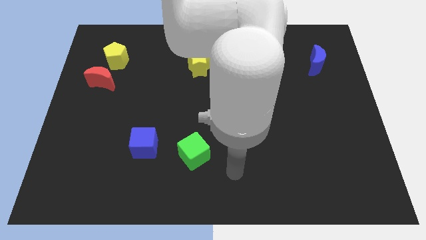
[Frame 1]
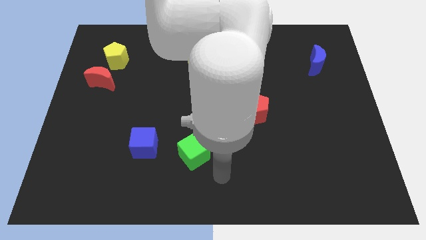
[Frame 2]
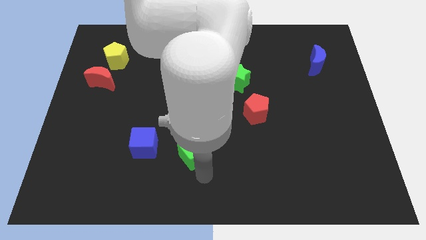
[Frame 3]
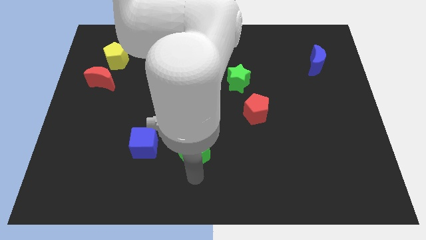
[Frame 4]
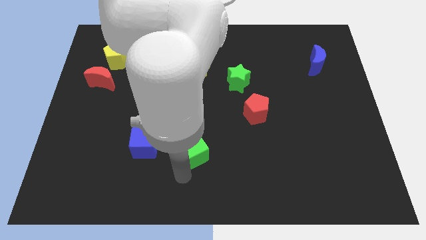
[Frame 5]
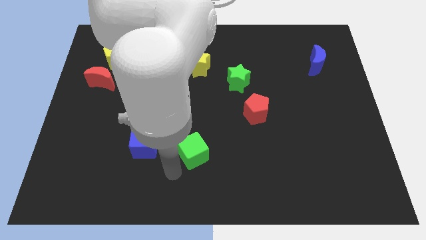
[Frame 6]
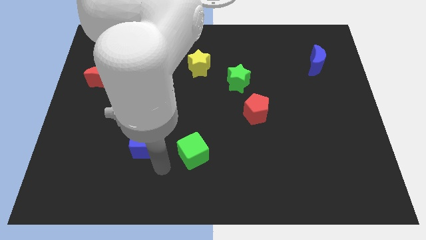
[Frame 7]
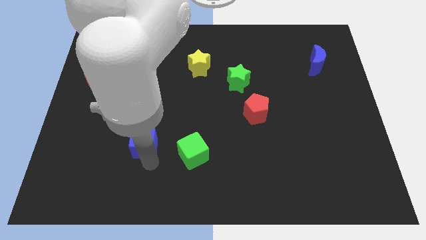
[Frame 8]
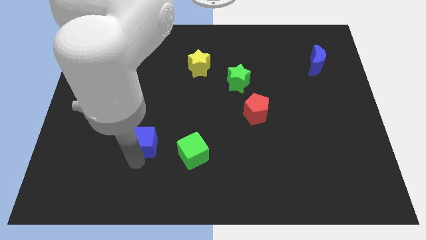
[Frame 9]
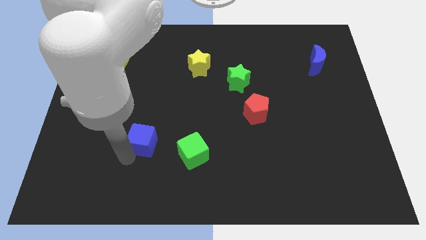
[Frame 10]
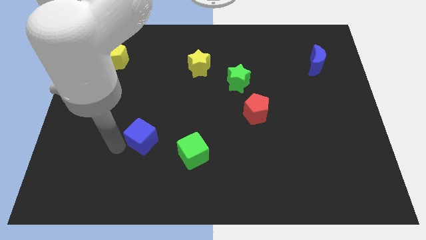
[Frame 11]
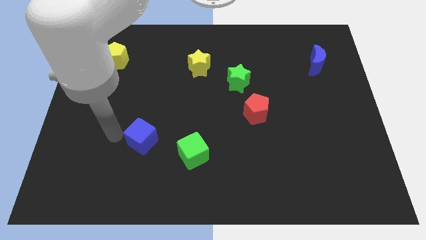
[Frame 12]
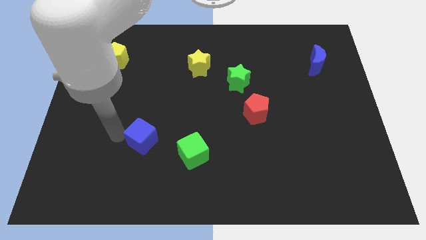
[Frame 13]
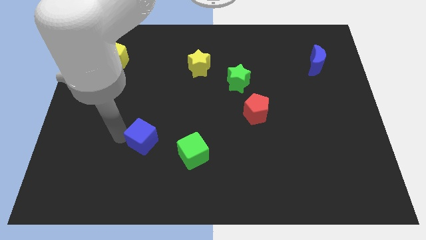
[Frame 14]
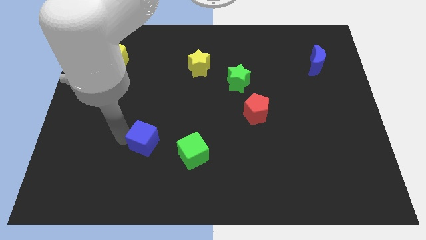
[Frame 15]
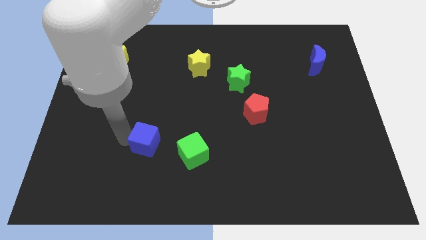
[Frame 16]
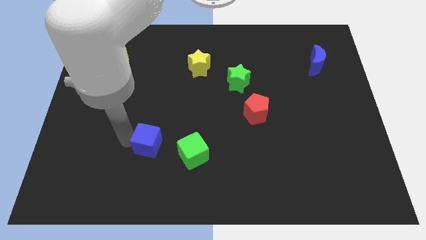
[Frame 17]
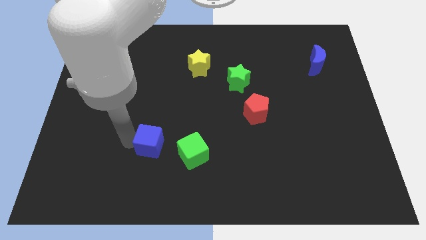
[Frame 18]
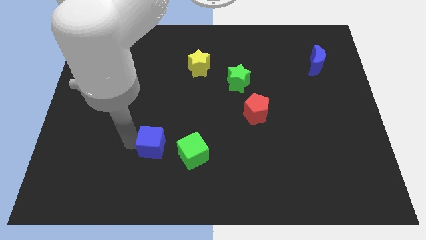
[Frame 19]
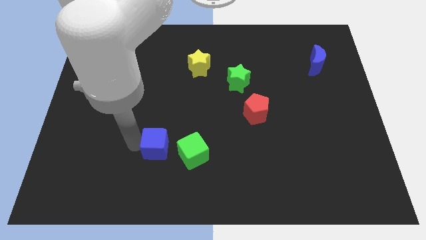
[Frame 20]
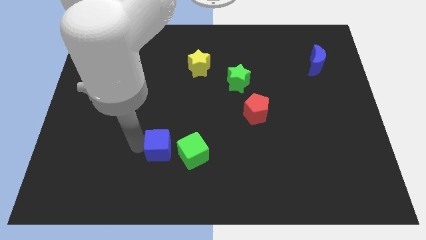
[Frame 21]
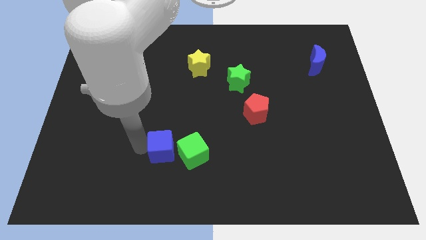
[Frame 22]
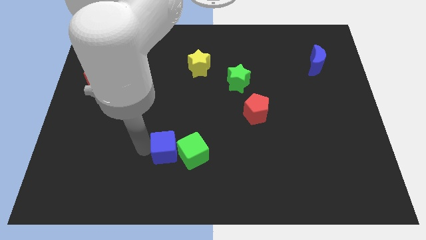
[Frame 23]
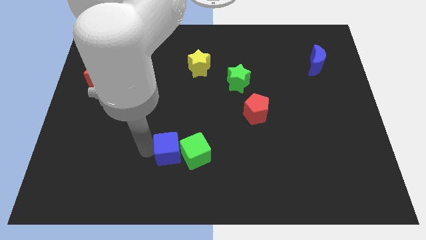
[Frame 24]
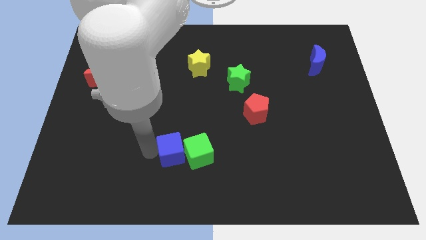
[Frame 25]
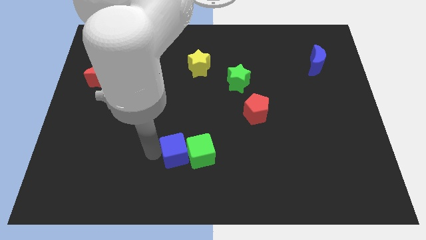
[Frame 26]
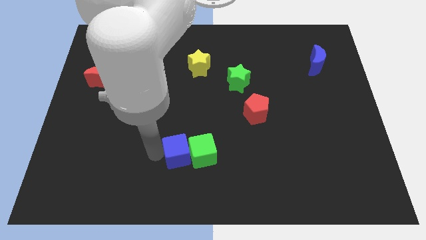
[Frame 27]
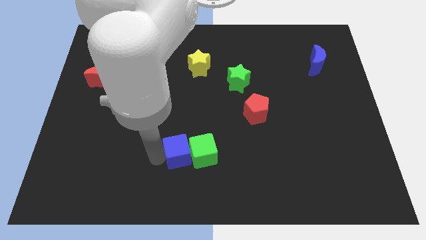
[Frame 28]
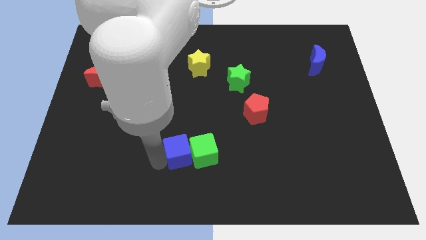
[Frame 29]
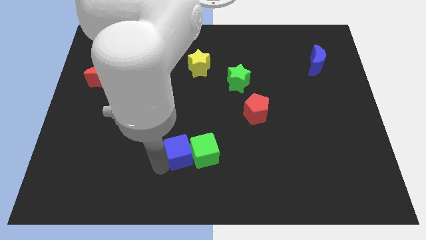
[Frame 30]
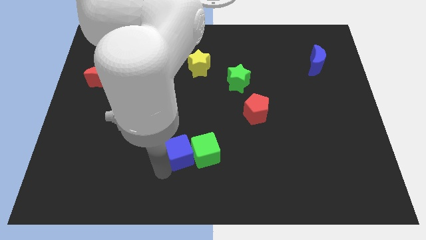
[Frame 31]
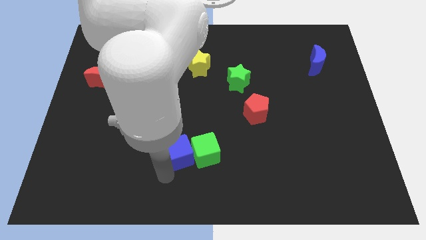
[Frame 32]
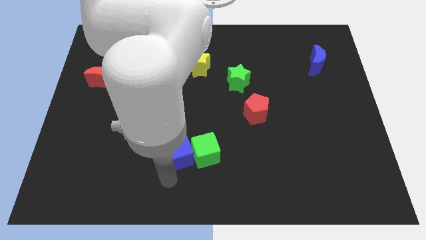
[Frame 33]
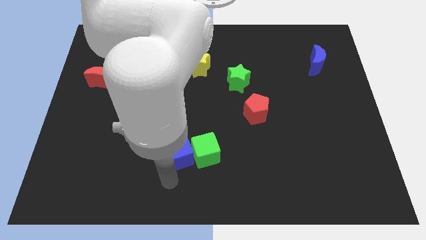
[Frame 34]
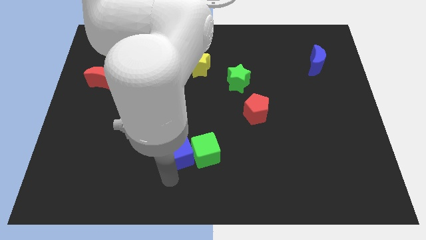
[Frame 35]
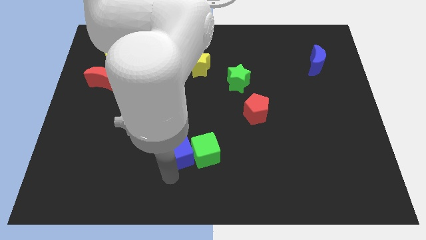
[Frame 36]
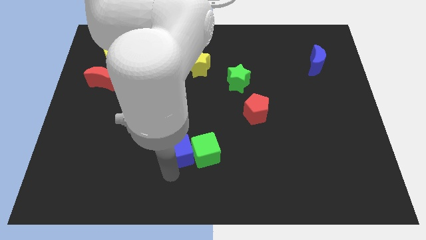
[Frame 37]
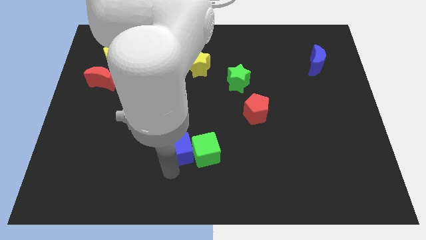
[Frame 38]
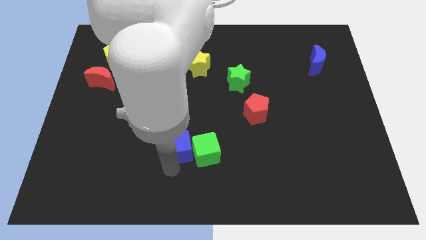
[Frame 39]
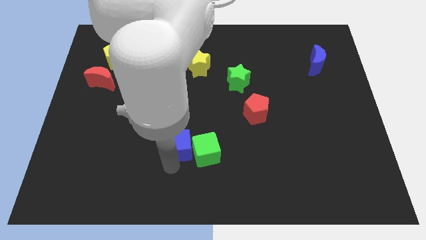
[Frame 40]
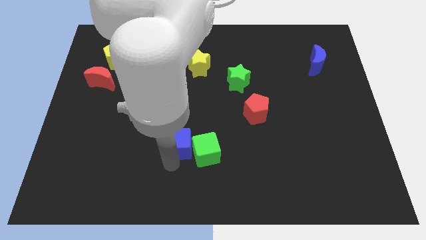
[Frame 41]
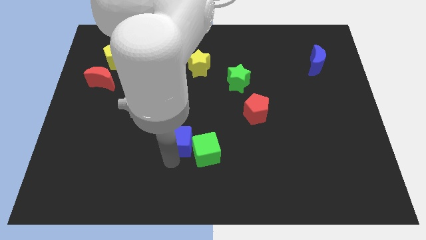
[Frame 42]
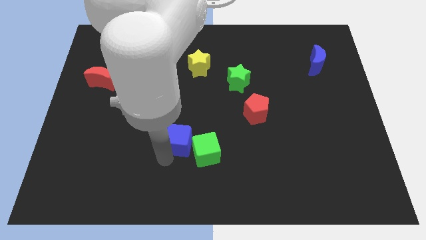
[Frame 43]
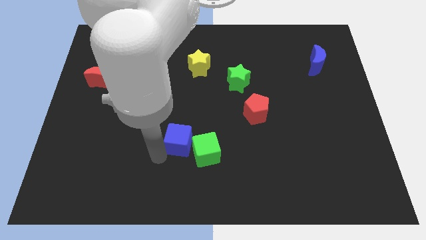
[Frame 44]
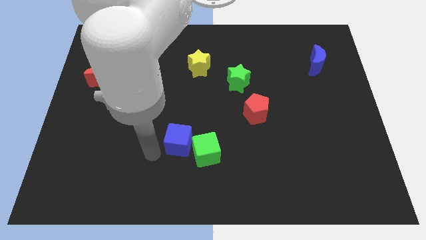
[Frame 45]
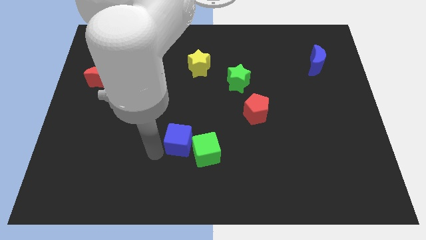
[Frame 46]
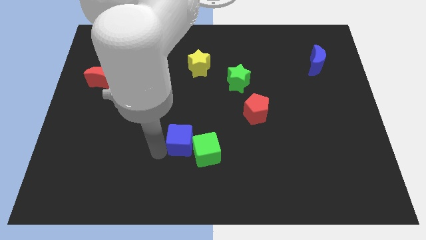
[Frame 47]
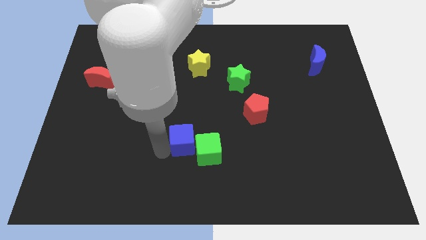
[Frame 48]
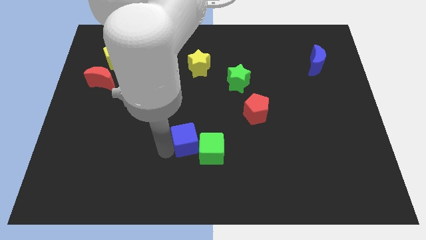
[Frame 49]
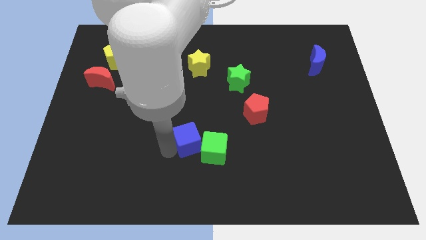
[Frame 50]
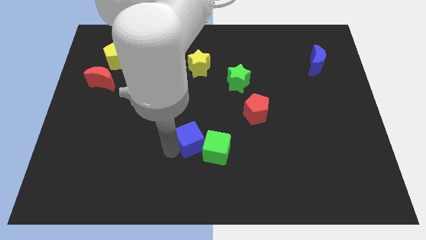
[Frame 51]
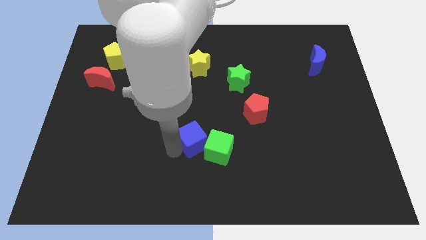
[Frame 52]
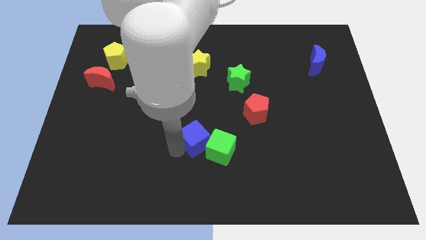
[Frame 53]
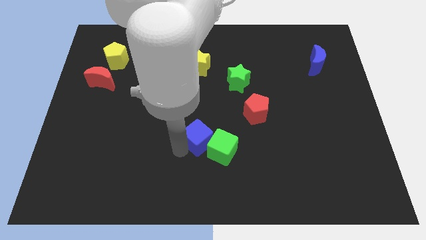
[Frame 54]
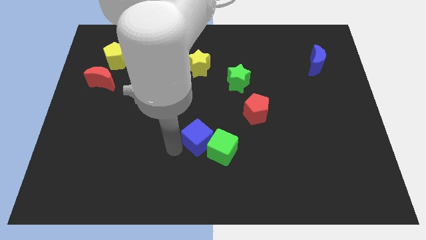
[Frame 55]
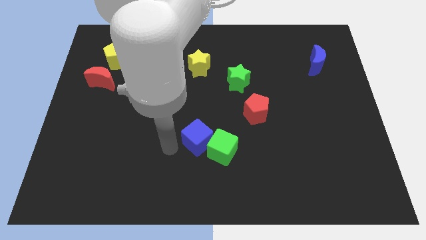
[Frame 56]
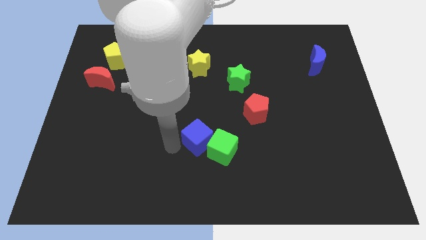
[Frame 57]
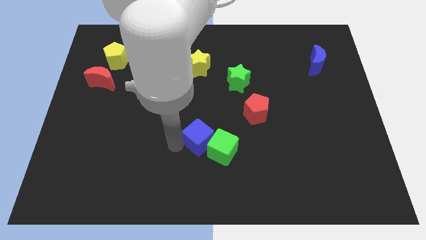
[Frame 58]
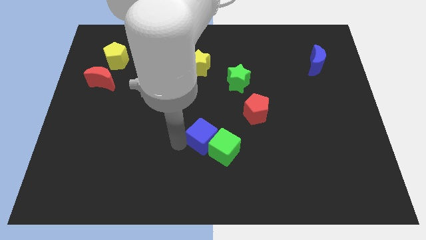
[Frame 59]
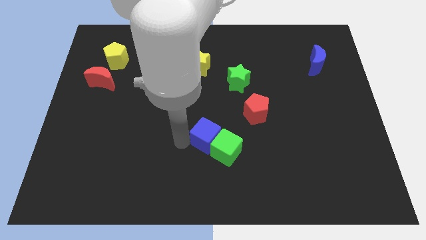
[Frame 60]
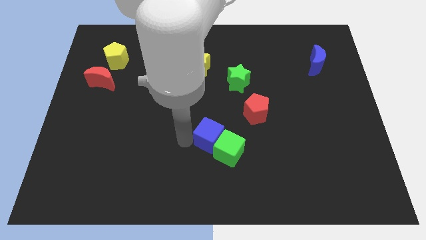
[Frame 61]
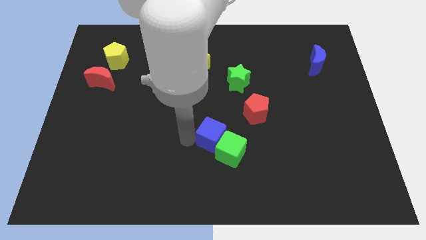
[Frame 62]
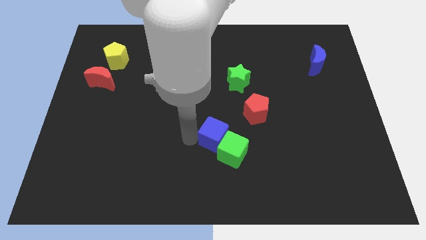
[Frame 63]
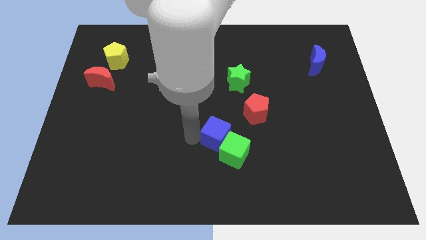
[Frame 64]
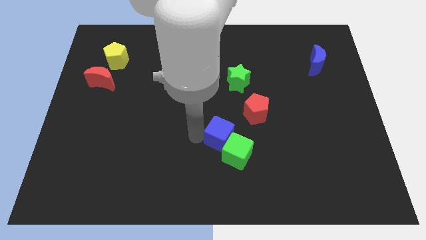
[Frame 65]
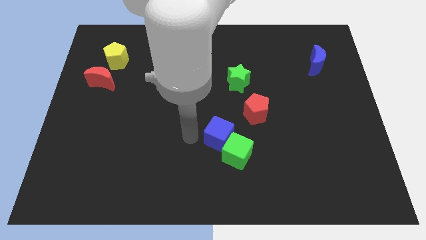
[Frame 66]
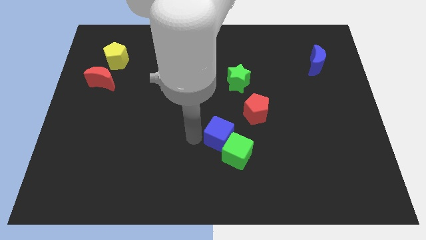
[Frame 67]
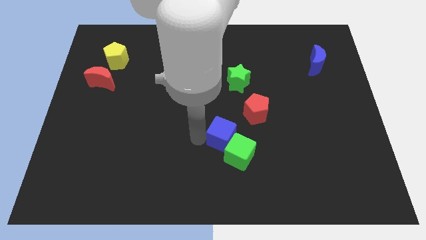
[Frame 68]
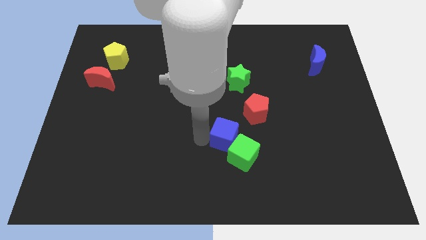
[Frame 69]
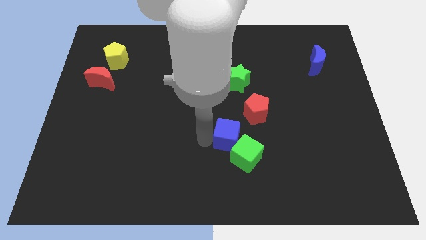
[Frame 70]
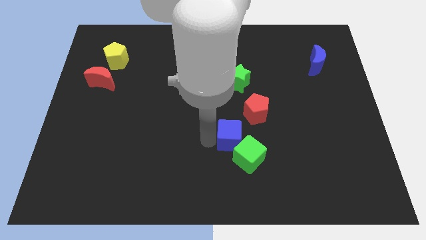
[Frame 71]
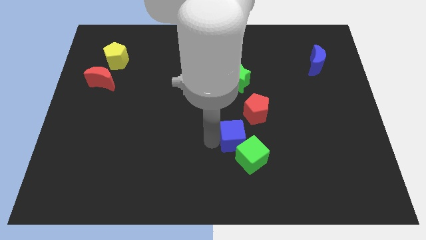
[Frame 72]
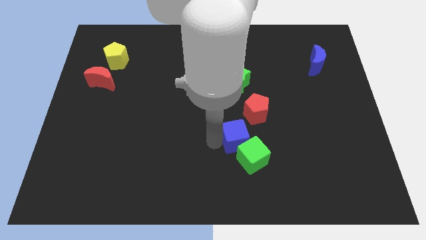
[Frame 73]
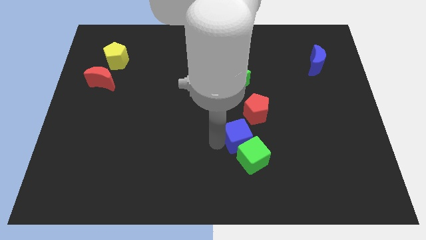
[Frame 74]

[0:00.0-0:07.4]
move the blue cube to the right
